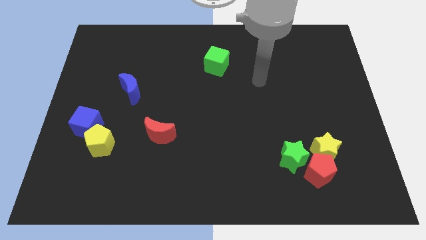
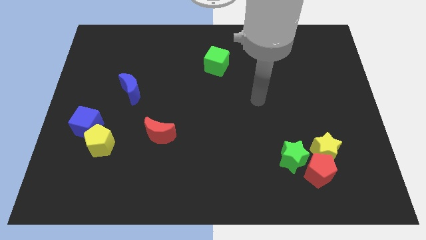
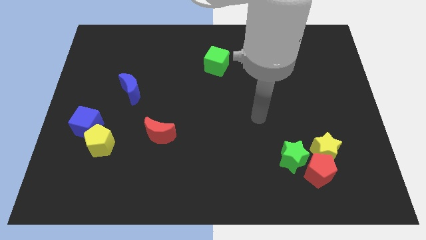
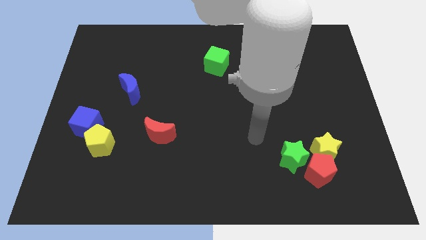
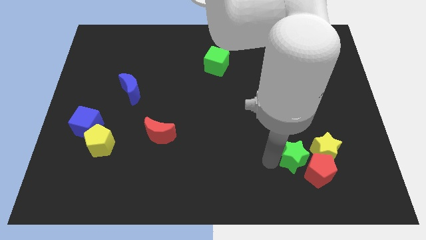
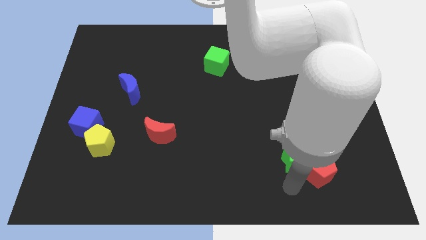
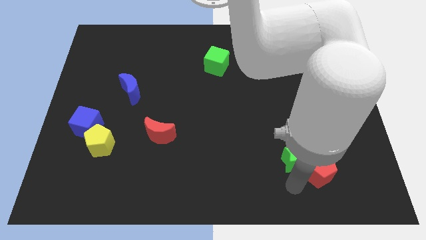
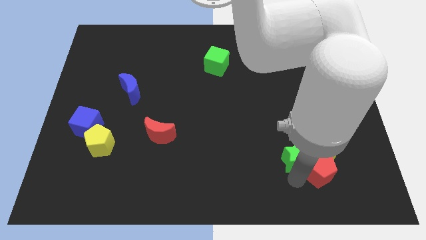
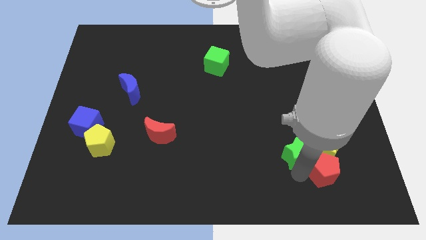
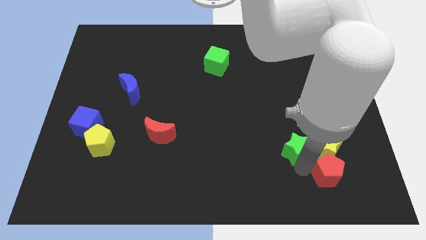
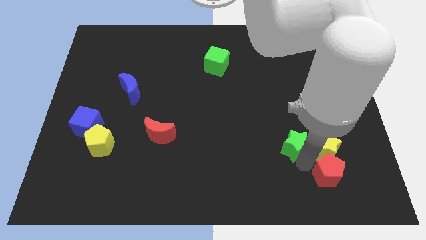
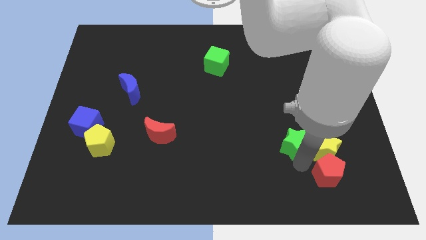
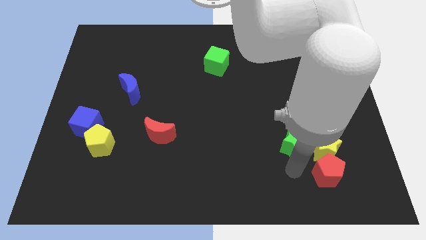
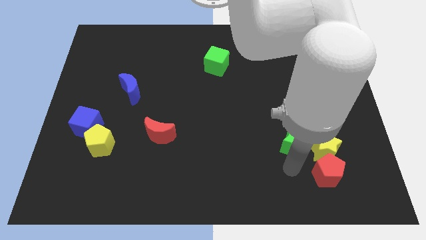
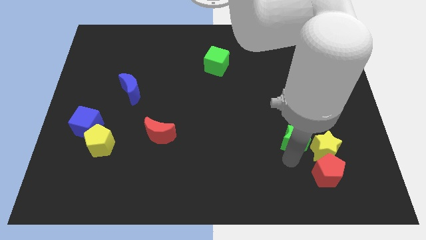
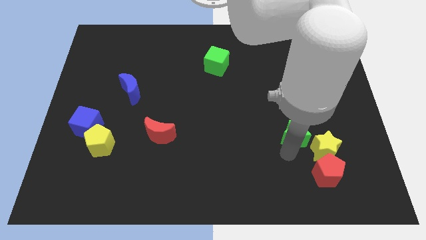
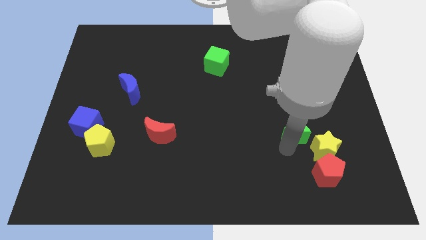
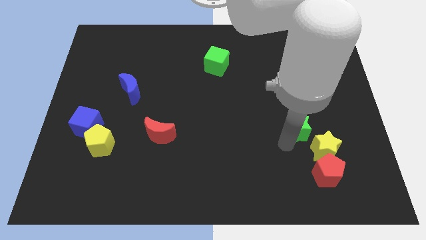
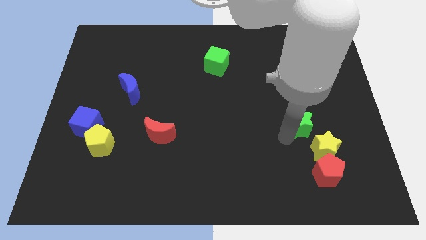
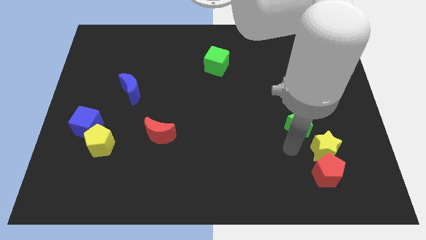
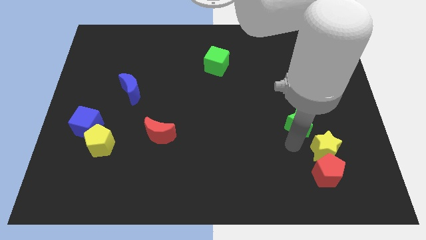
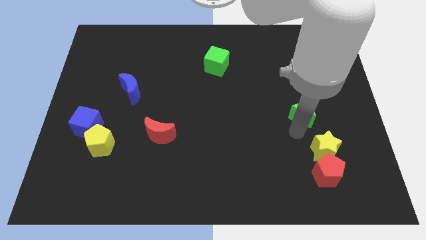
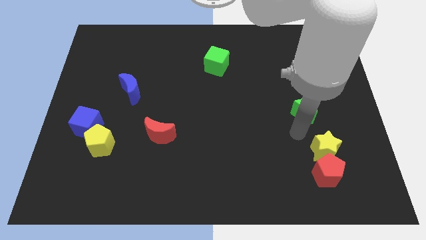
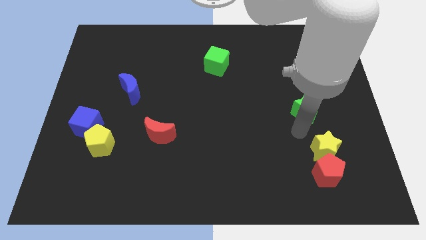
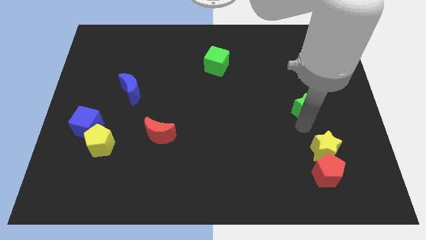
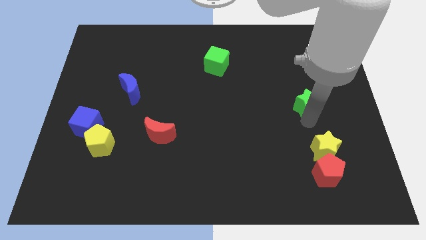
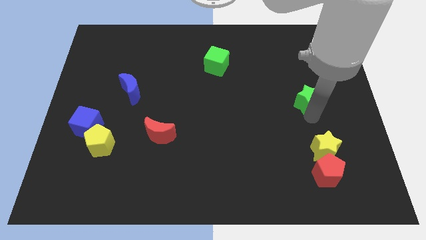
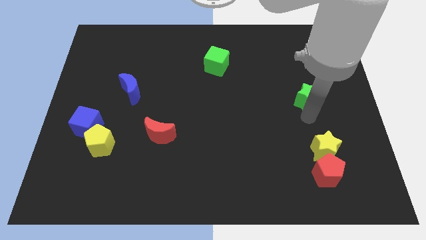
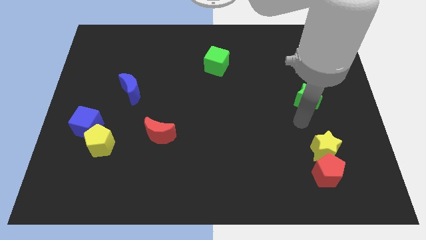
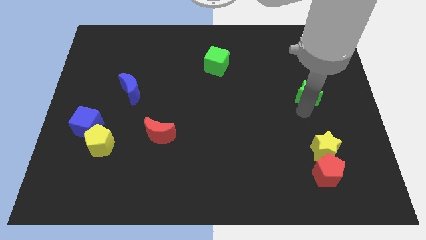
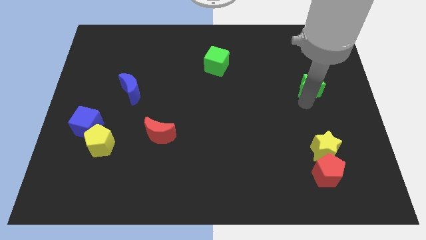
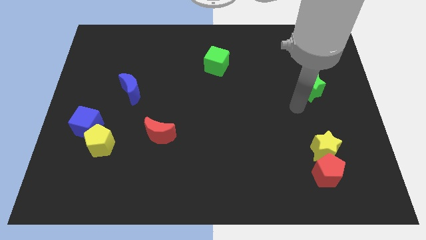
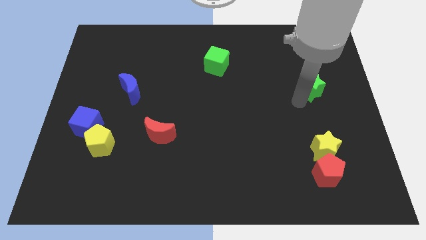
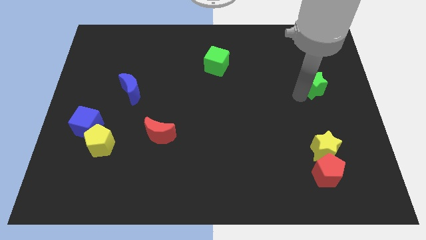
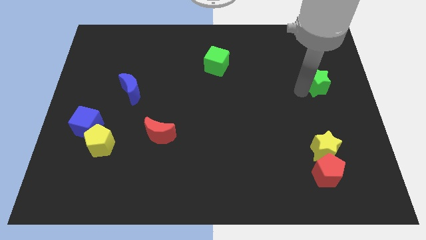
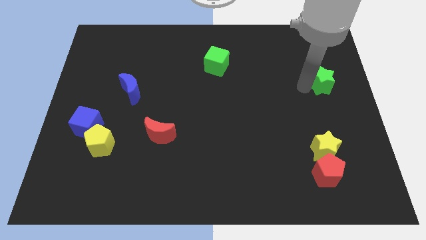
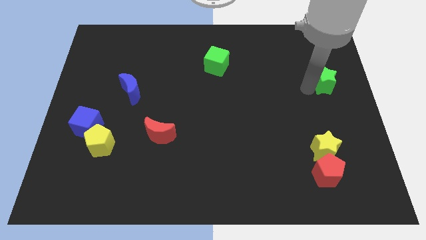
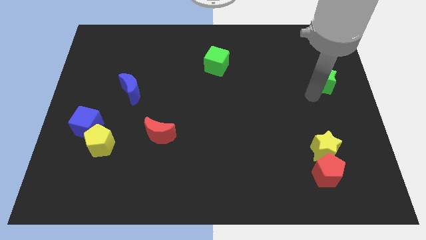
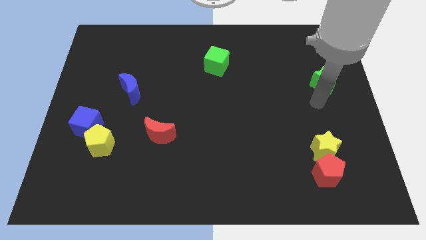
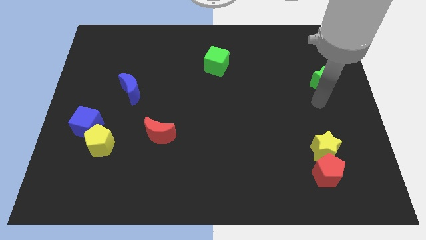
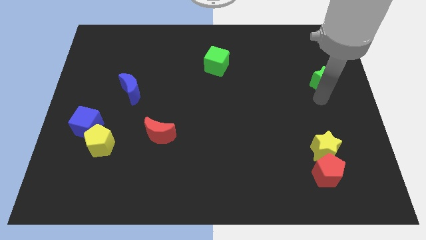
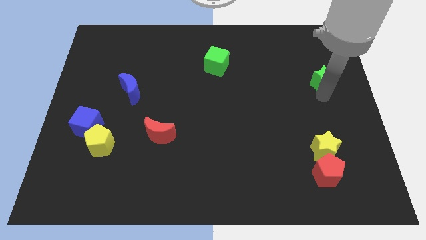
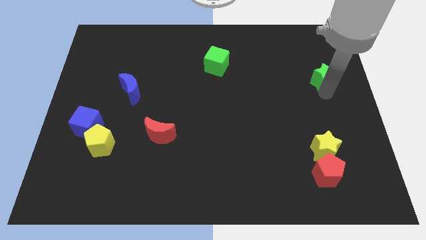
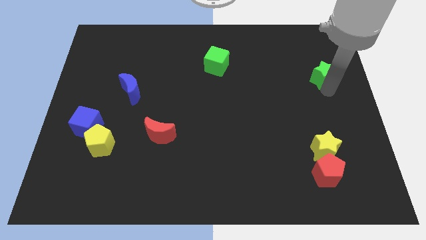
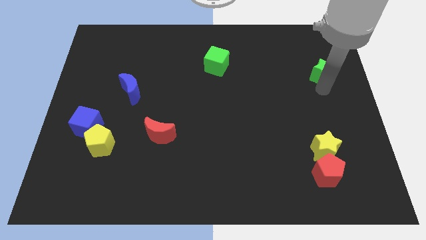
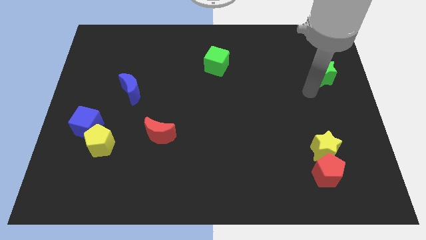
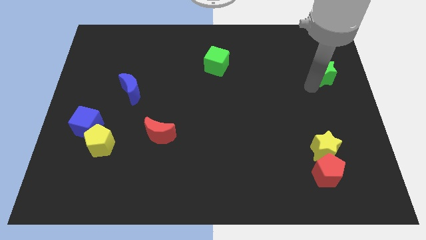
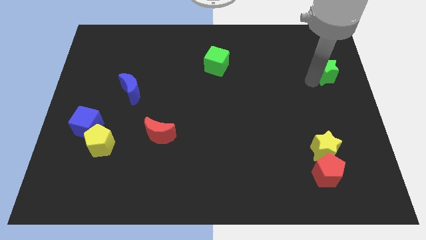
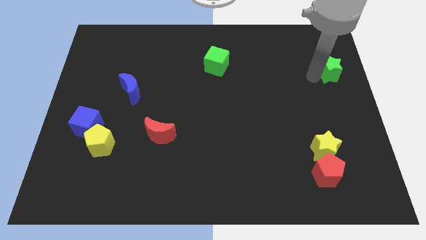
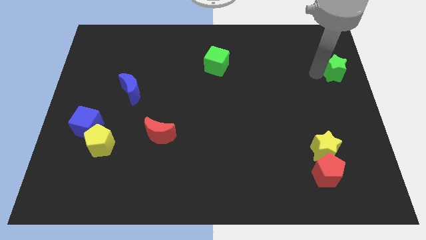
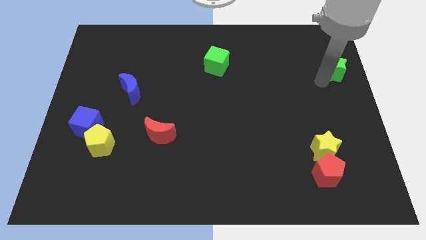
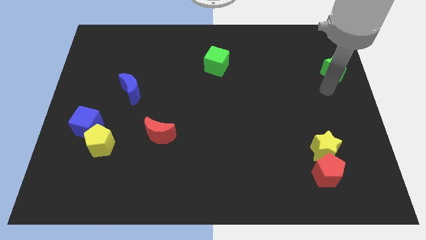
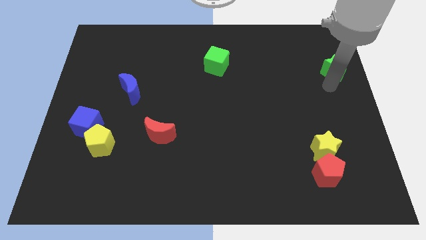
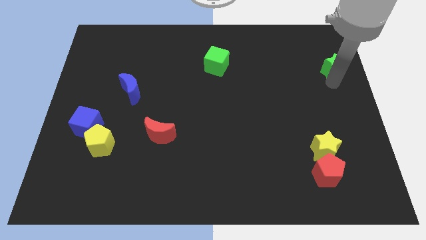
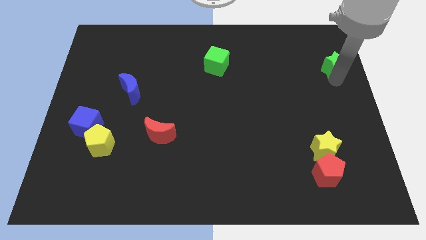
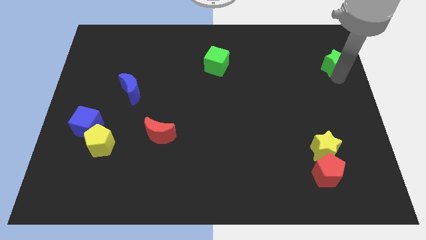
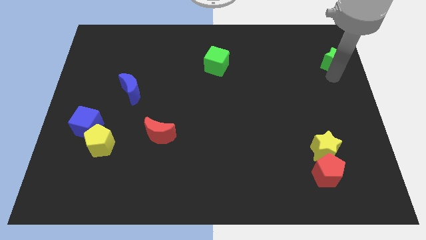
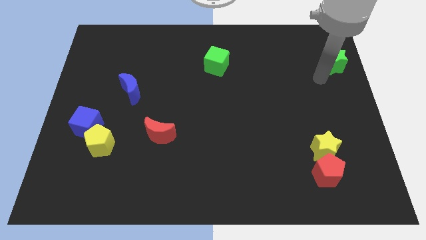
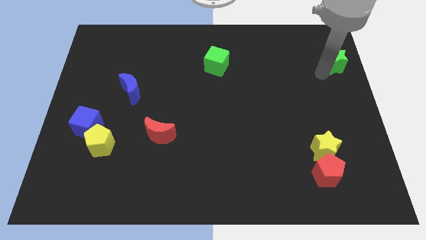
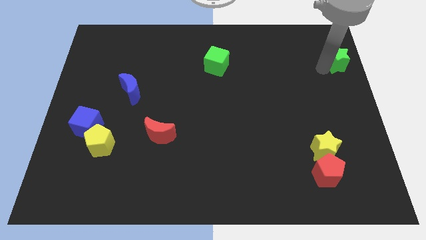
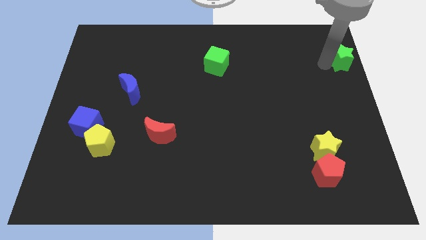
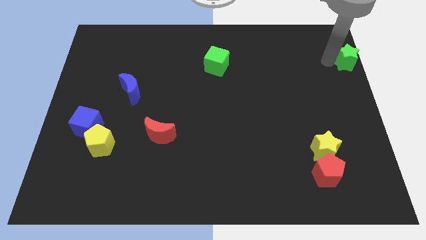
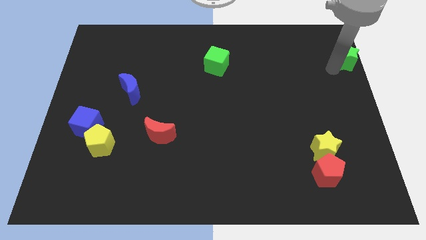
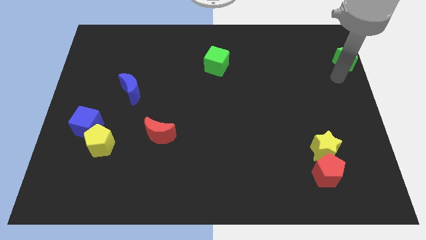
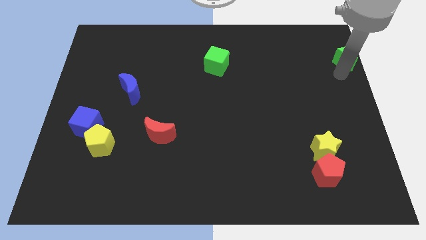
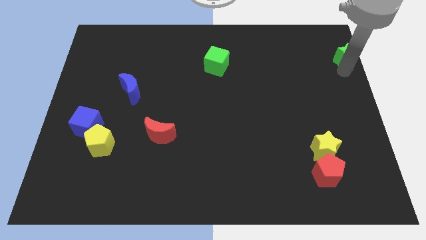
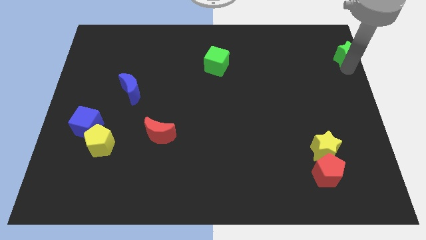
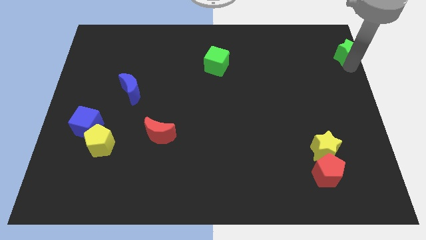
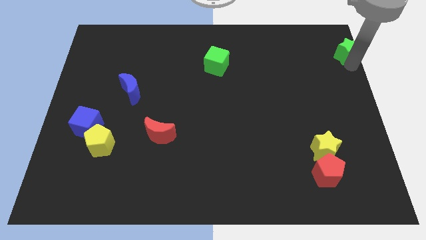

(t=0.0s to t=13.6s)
put the green star to the upper right corner
